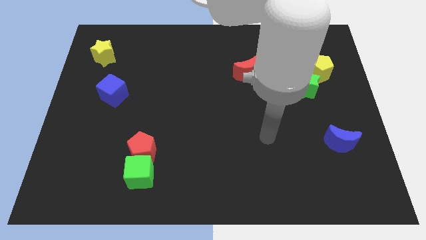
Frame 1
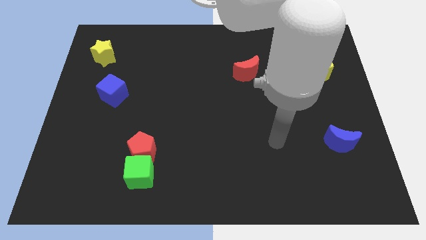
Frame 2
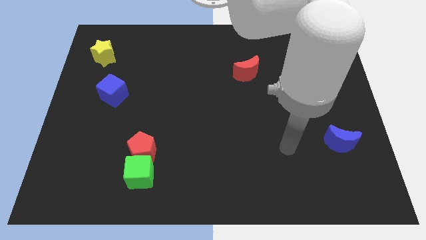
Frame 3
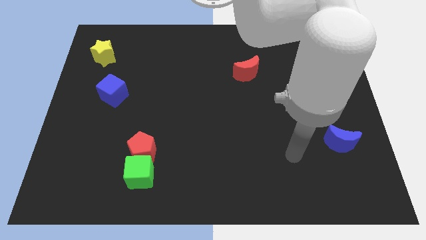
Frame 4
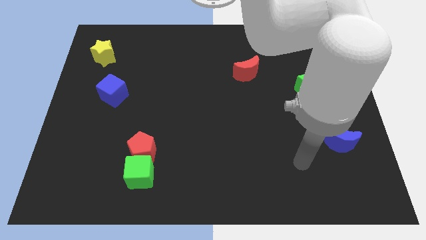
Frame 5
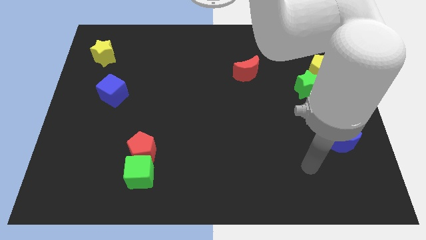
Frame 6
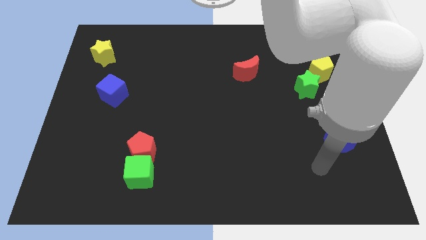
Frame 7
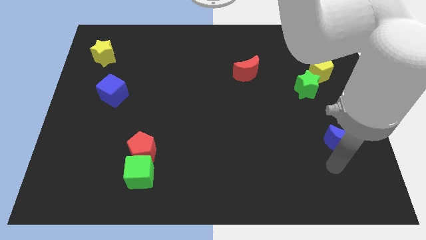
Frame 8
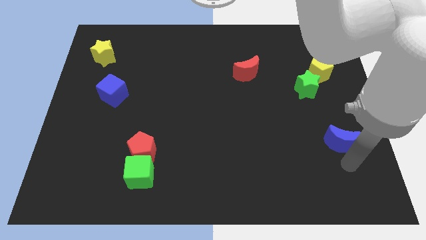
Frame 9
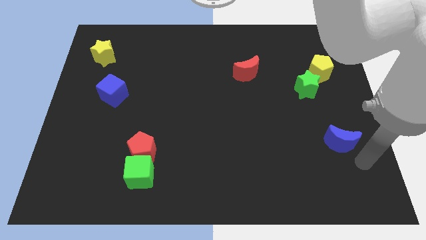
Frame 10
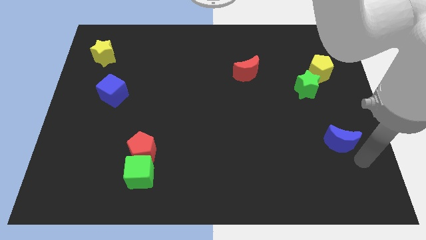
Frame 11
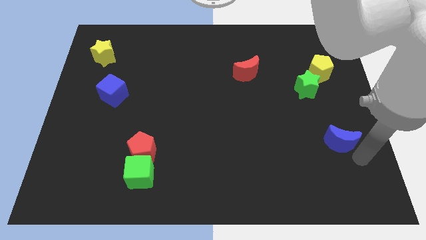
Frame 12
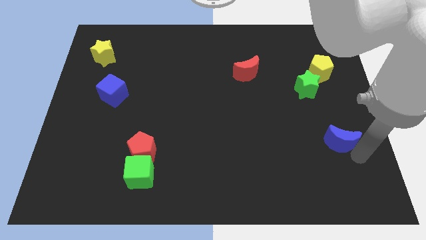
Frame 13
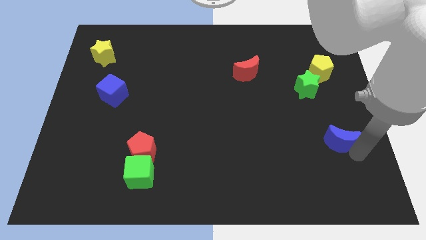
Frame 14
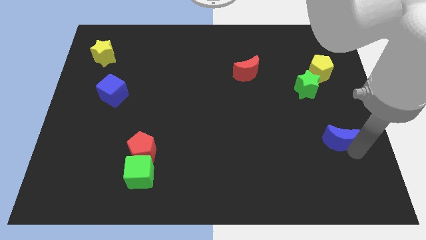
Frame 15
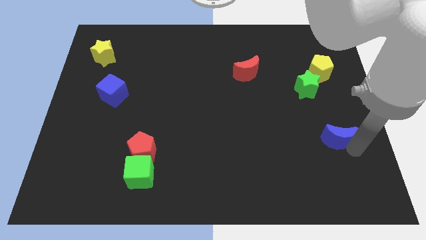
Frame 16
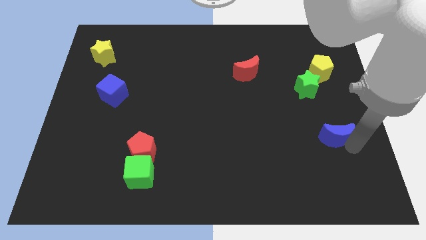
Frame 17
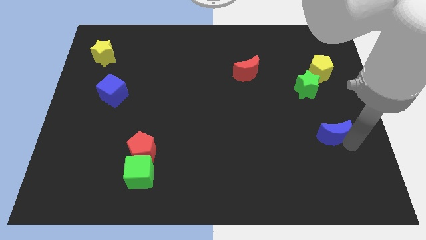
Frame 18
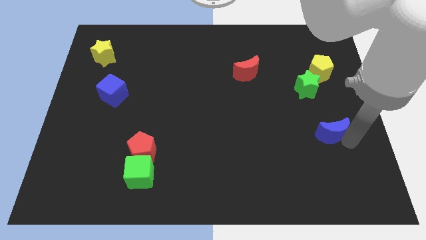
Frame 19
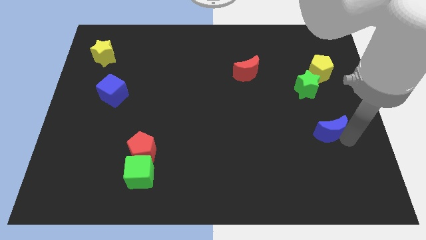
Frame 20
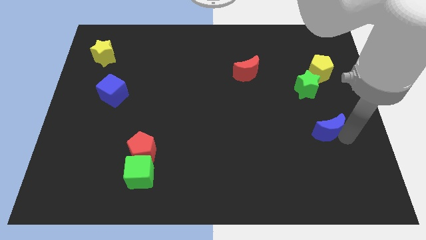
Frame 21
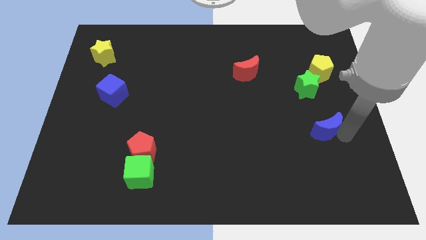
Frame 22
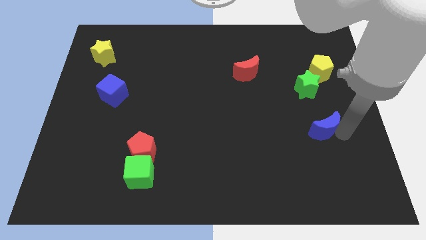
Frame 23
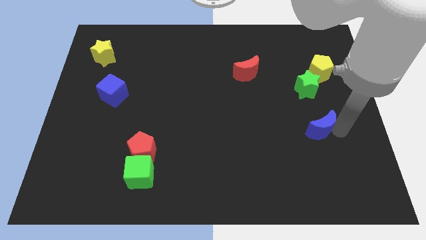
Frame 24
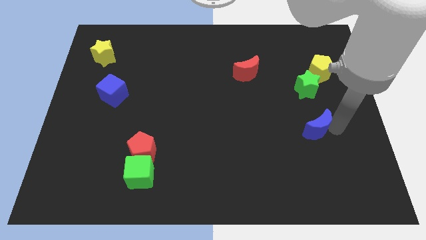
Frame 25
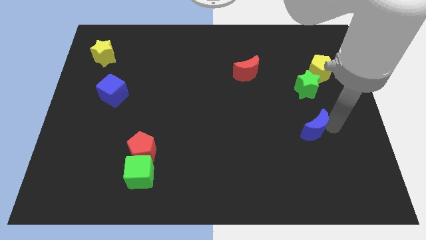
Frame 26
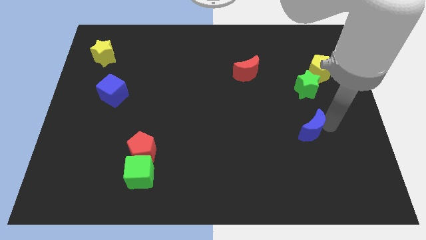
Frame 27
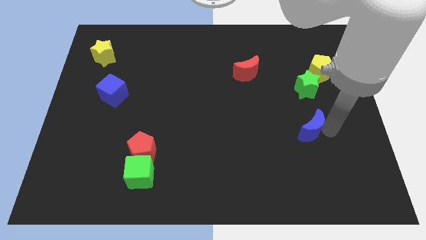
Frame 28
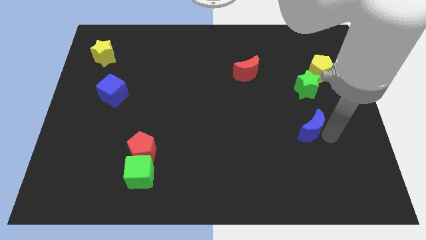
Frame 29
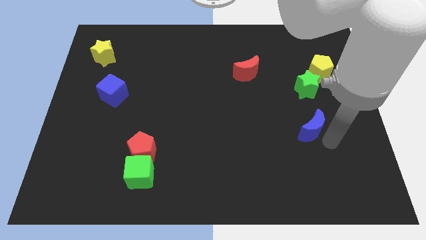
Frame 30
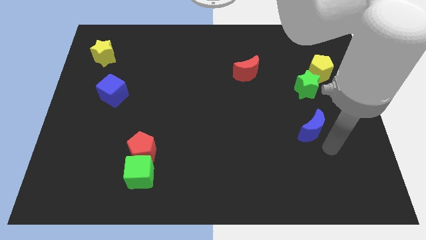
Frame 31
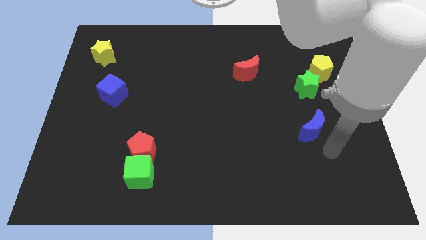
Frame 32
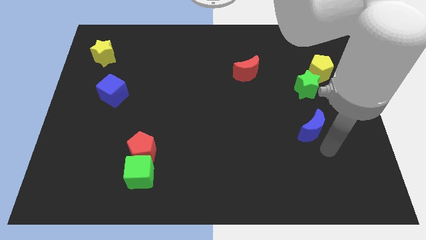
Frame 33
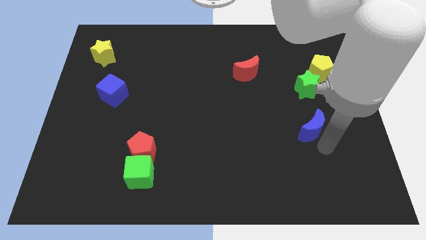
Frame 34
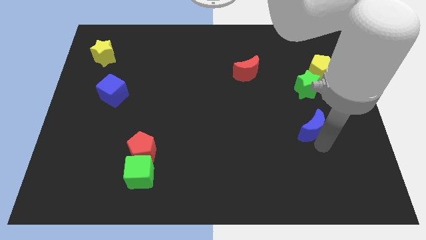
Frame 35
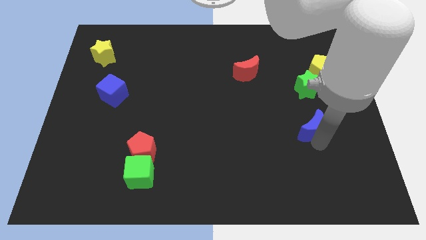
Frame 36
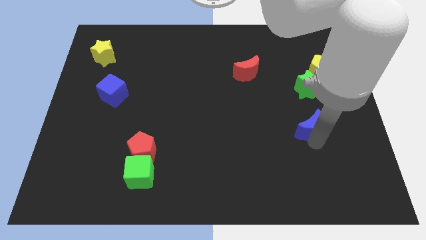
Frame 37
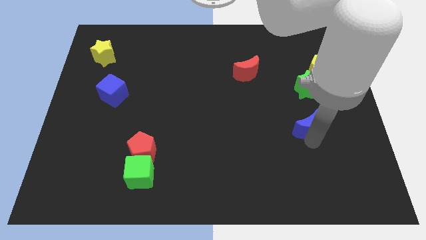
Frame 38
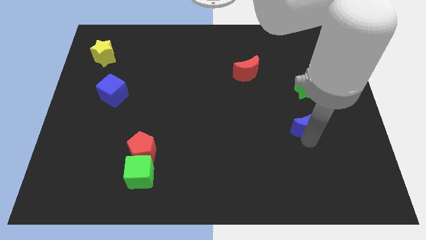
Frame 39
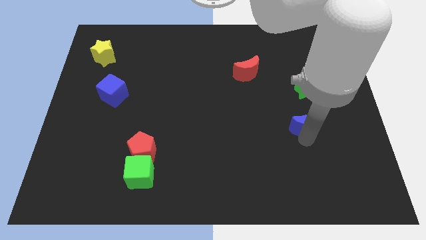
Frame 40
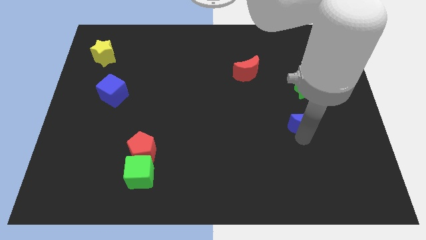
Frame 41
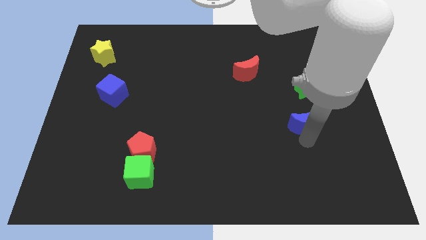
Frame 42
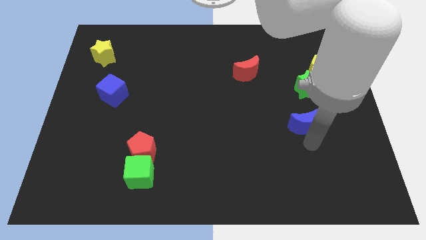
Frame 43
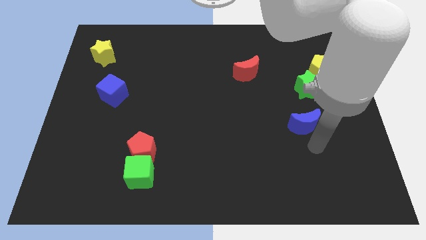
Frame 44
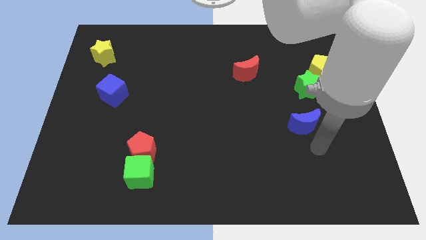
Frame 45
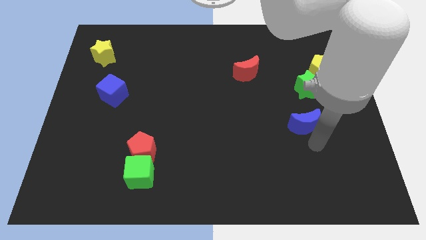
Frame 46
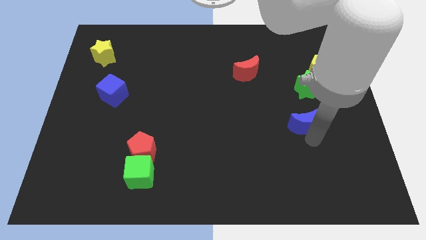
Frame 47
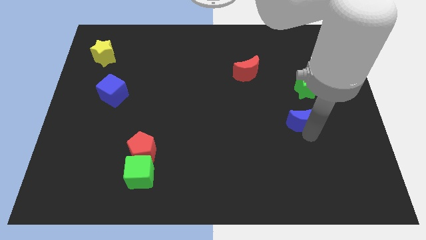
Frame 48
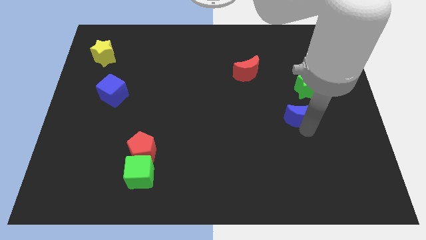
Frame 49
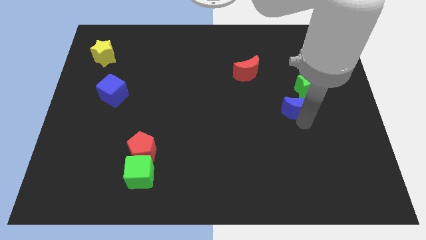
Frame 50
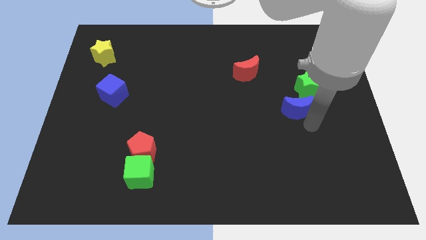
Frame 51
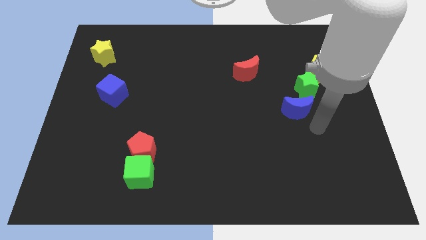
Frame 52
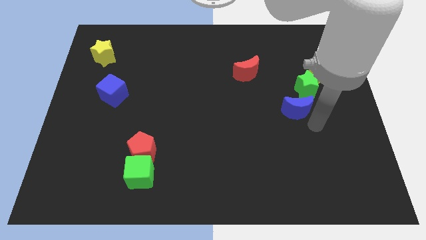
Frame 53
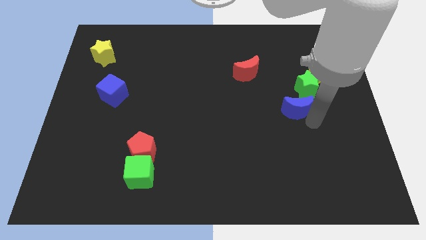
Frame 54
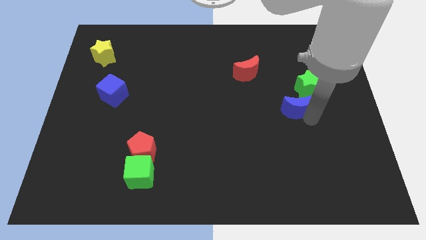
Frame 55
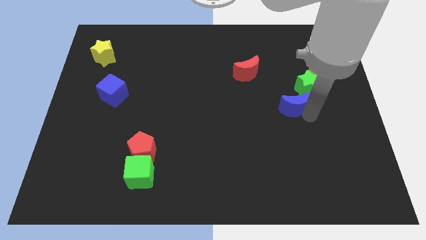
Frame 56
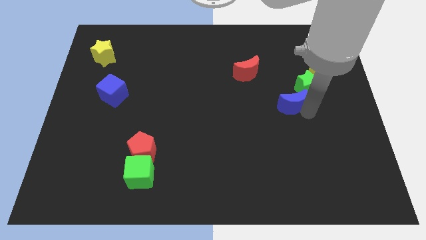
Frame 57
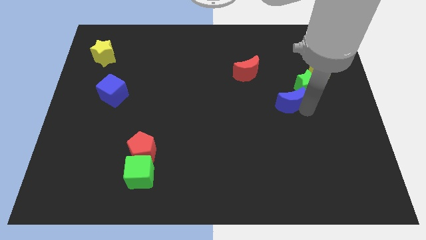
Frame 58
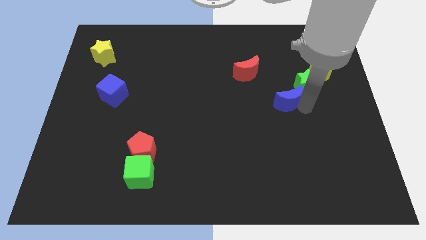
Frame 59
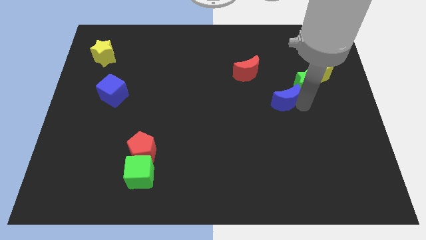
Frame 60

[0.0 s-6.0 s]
push the blue moon diagonally down and to the right of the red moon
